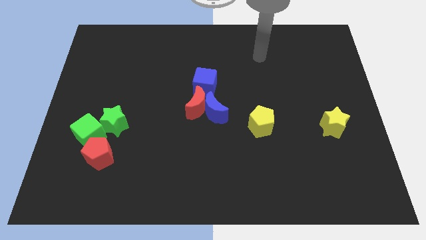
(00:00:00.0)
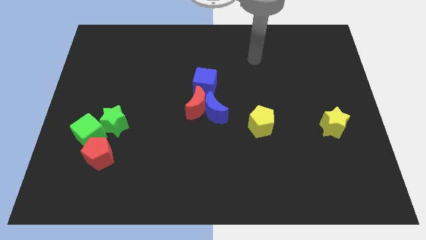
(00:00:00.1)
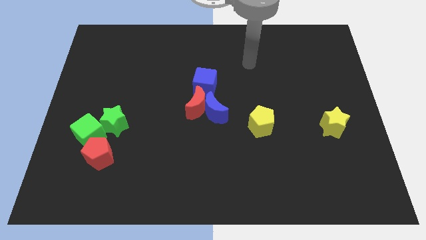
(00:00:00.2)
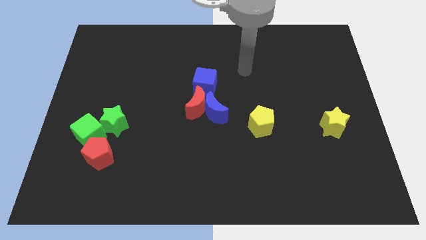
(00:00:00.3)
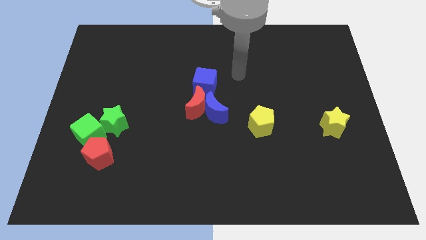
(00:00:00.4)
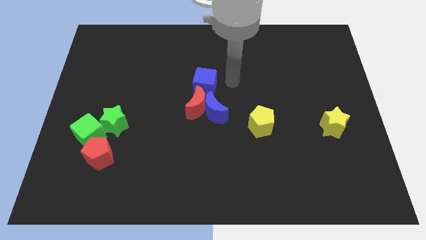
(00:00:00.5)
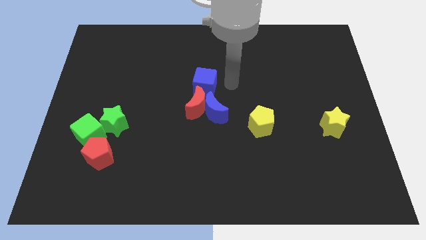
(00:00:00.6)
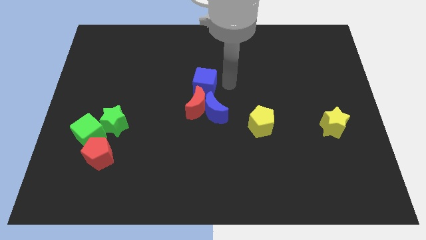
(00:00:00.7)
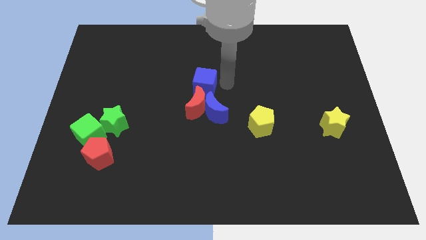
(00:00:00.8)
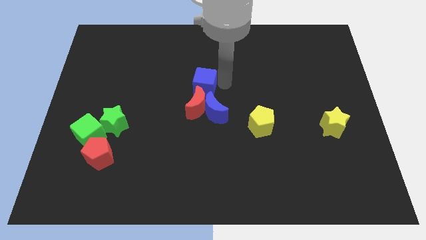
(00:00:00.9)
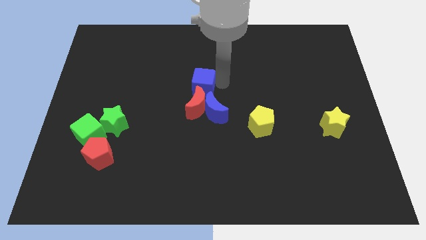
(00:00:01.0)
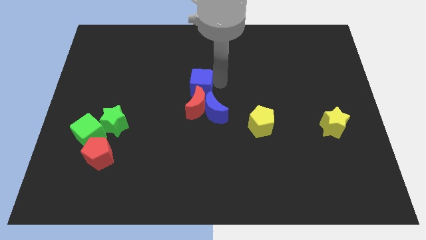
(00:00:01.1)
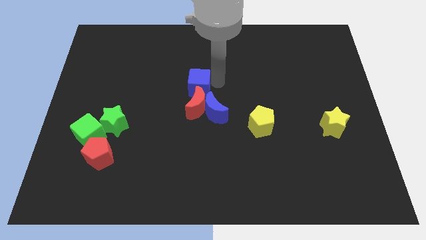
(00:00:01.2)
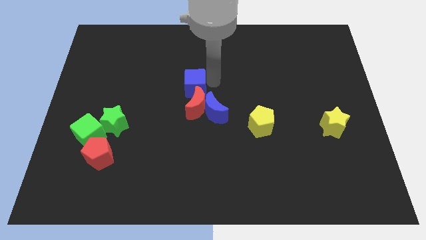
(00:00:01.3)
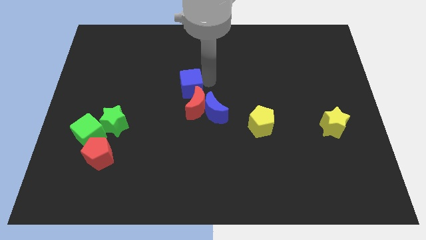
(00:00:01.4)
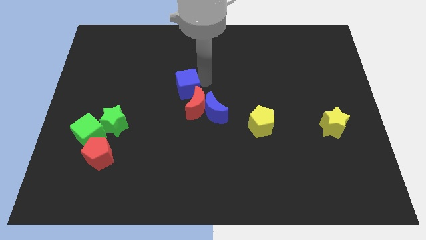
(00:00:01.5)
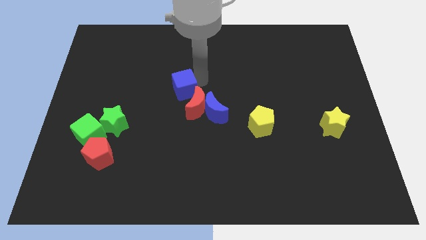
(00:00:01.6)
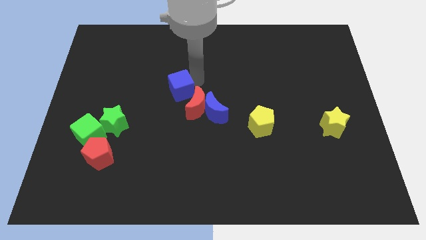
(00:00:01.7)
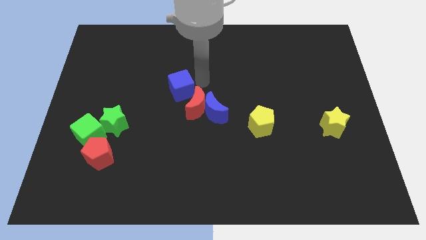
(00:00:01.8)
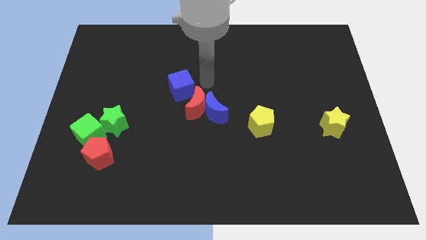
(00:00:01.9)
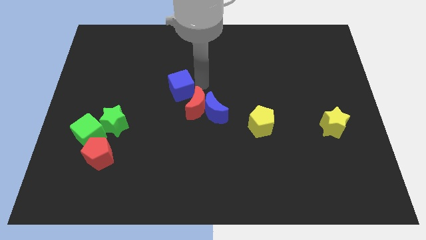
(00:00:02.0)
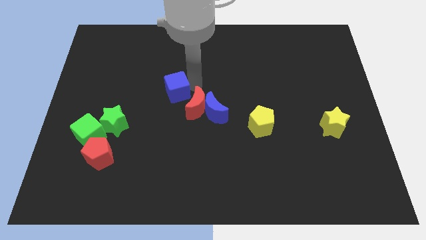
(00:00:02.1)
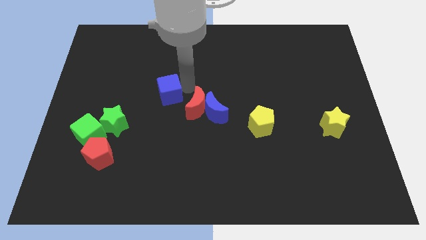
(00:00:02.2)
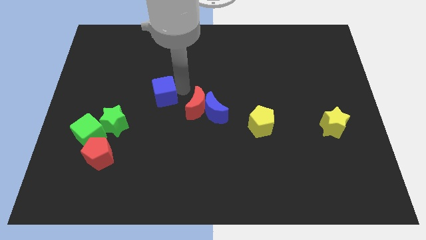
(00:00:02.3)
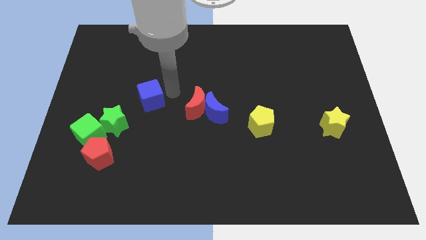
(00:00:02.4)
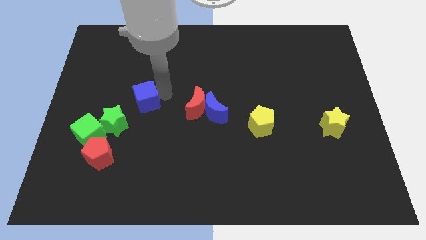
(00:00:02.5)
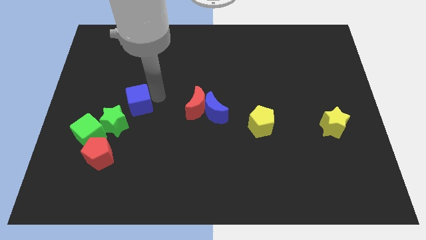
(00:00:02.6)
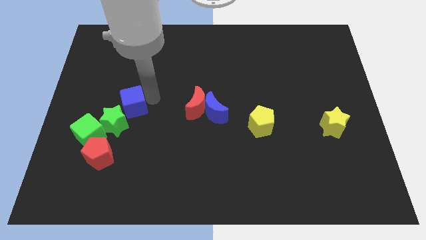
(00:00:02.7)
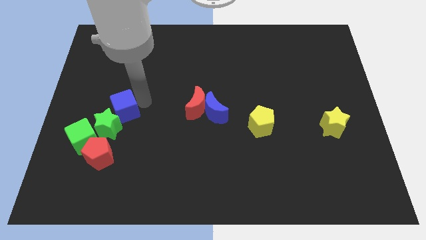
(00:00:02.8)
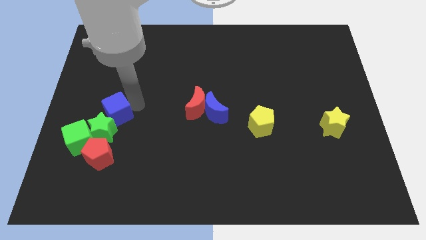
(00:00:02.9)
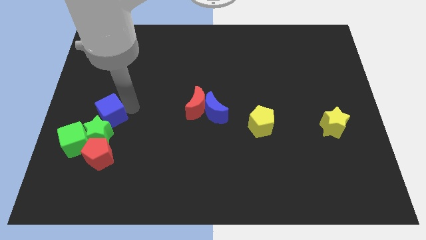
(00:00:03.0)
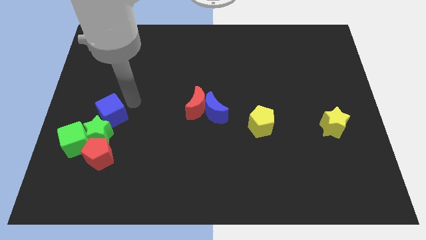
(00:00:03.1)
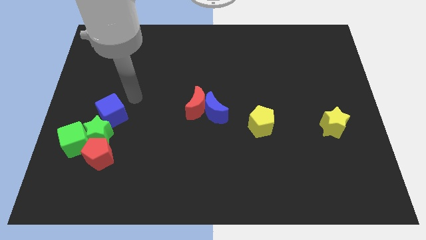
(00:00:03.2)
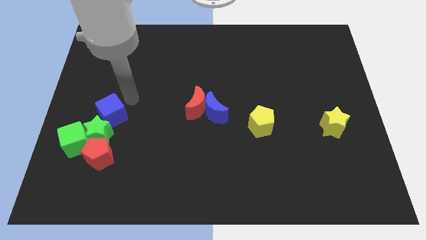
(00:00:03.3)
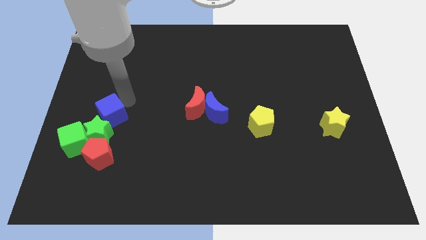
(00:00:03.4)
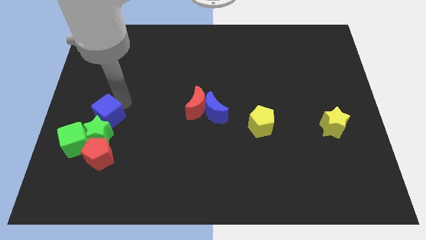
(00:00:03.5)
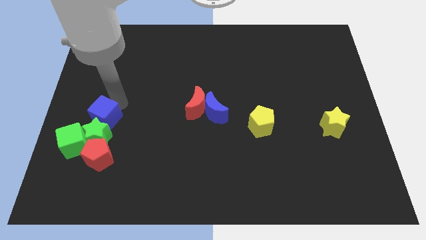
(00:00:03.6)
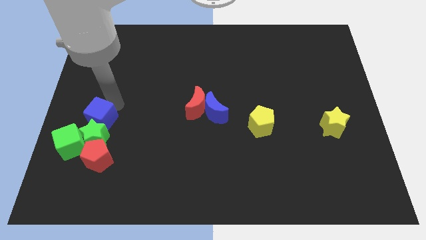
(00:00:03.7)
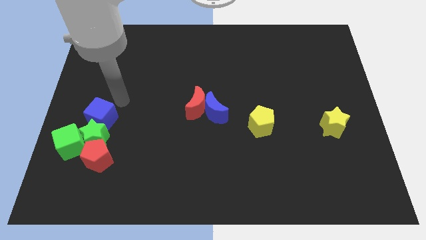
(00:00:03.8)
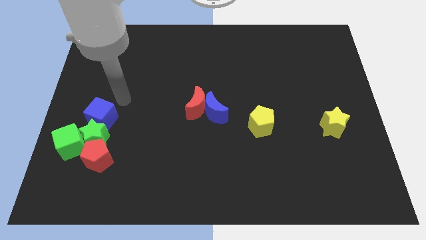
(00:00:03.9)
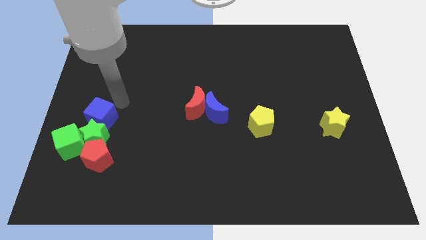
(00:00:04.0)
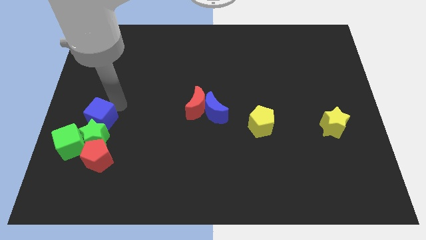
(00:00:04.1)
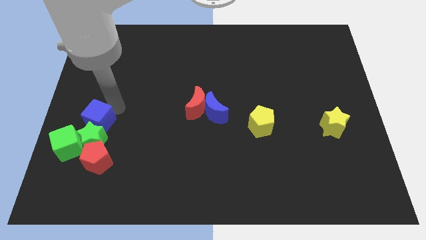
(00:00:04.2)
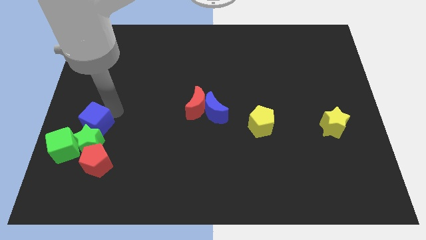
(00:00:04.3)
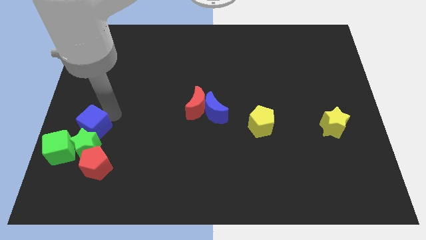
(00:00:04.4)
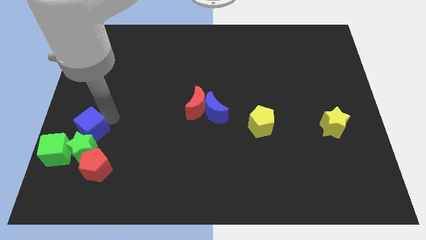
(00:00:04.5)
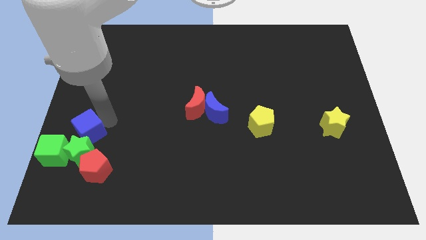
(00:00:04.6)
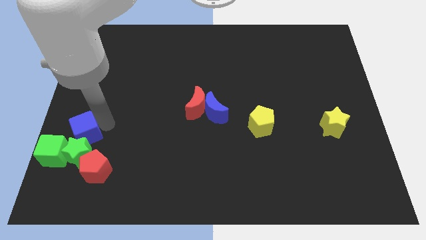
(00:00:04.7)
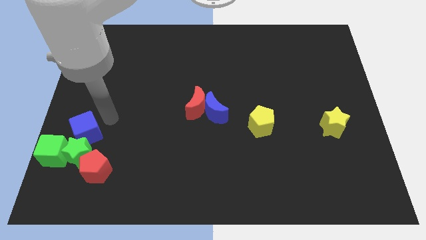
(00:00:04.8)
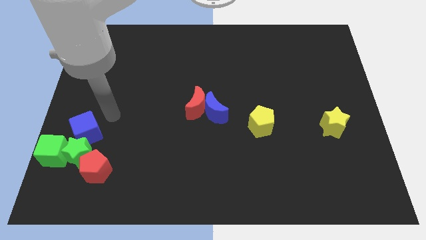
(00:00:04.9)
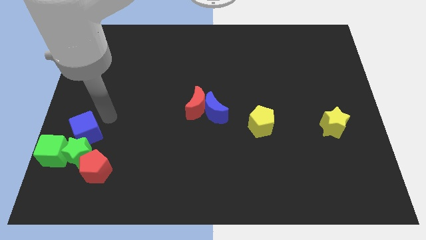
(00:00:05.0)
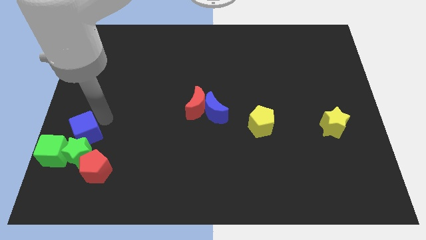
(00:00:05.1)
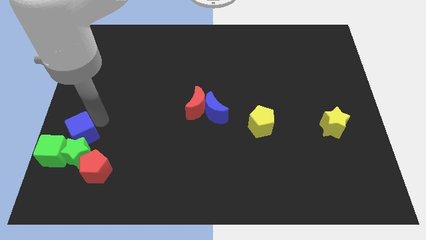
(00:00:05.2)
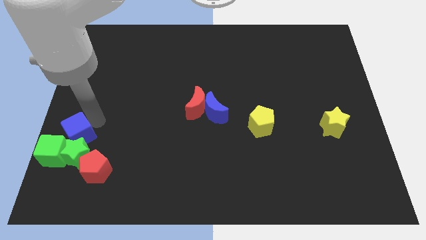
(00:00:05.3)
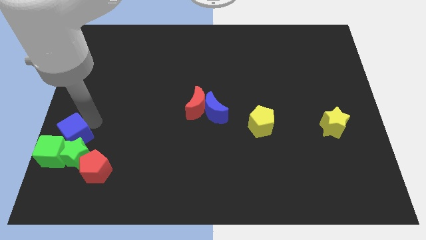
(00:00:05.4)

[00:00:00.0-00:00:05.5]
push the blue cube towards the green cube

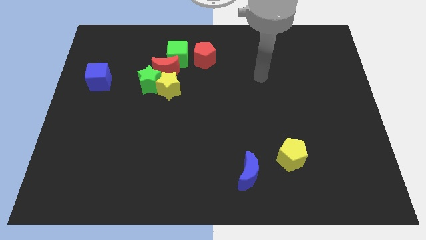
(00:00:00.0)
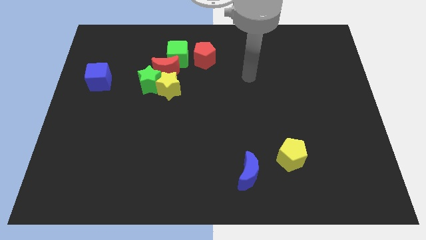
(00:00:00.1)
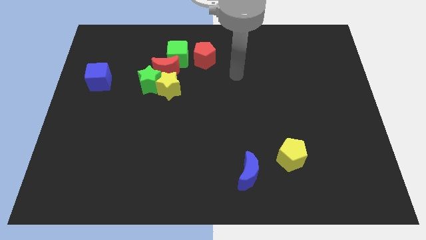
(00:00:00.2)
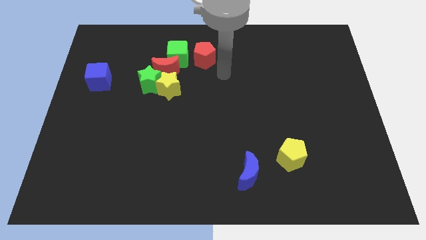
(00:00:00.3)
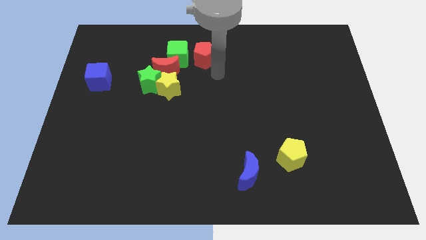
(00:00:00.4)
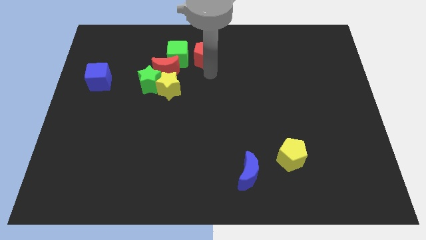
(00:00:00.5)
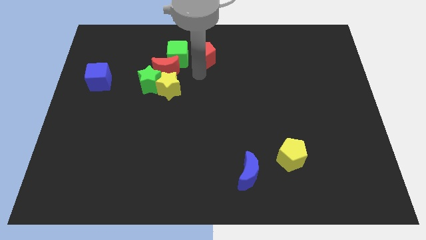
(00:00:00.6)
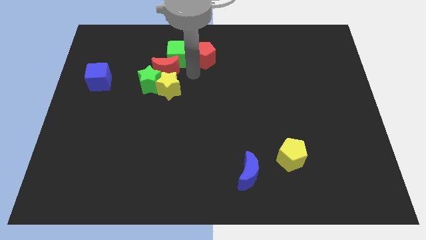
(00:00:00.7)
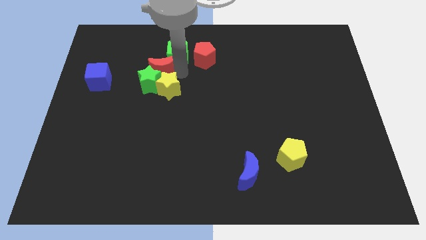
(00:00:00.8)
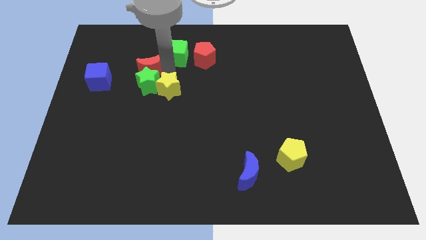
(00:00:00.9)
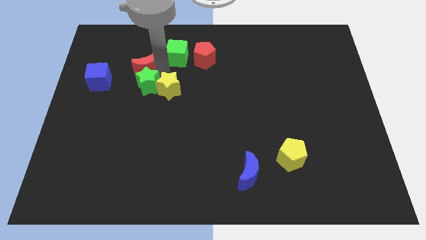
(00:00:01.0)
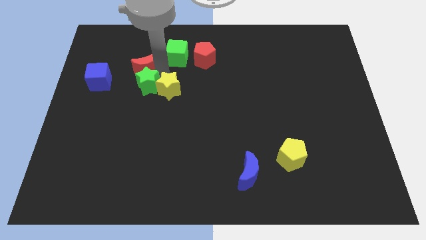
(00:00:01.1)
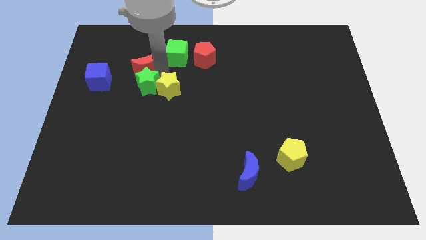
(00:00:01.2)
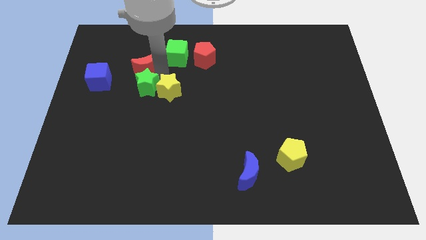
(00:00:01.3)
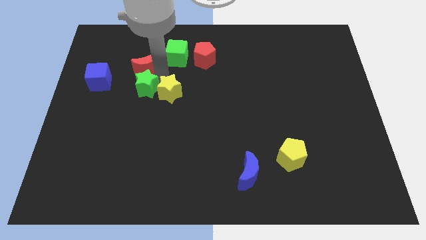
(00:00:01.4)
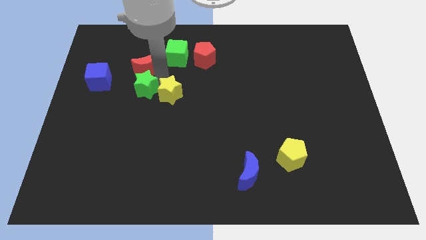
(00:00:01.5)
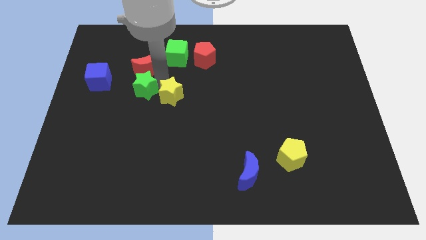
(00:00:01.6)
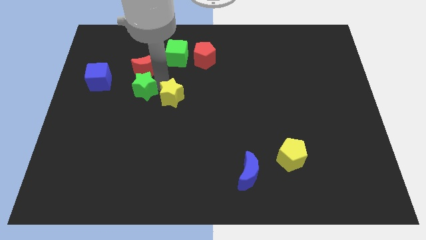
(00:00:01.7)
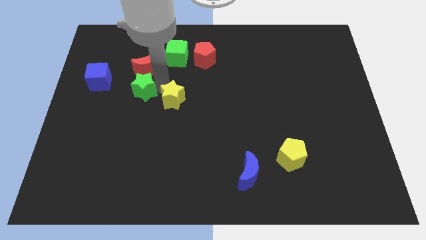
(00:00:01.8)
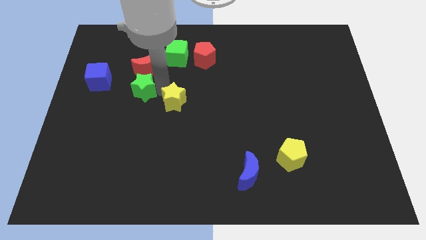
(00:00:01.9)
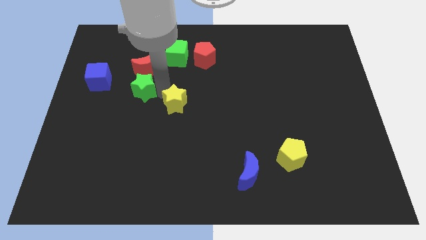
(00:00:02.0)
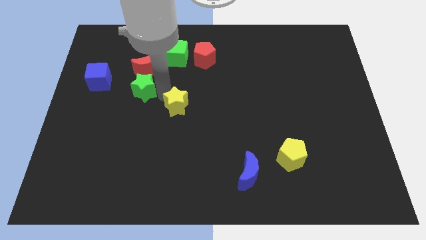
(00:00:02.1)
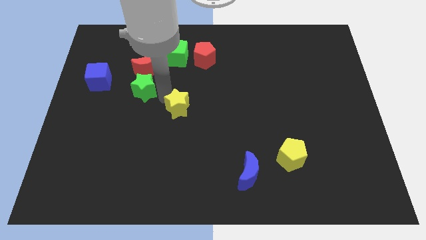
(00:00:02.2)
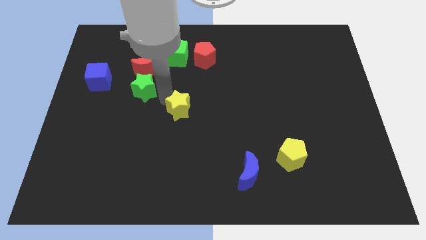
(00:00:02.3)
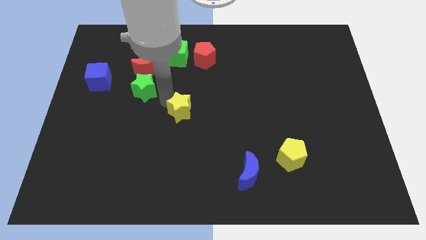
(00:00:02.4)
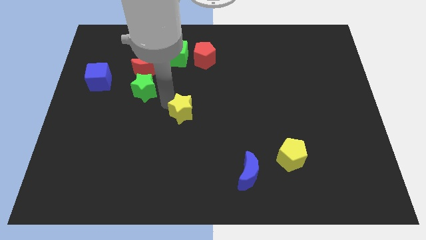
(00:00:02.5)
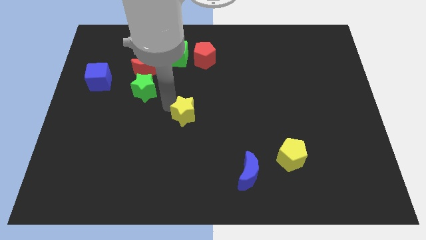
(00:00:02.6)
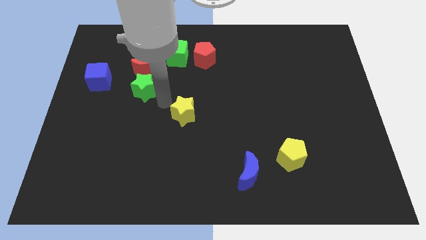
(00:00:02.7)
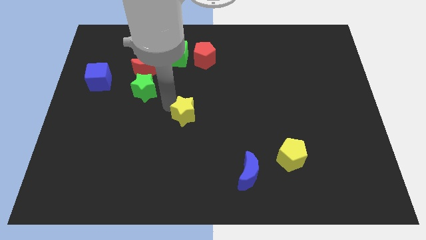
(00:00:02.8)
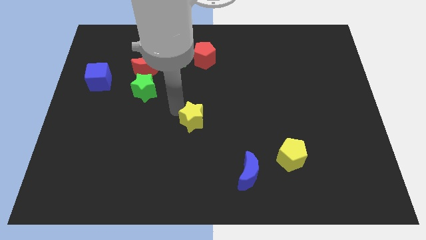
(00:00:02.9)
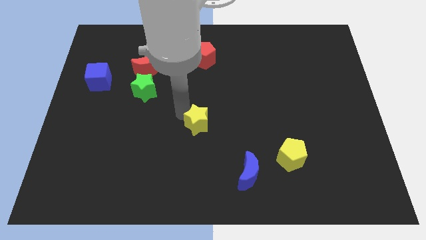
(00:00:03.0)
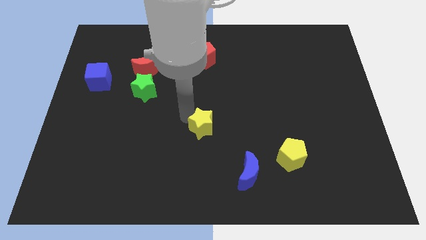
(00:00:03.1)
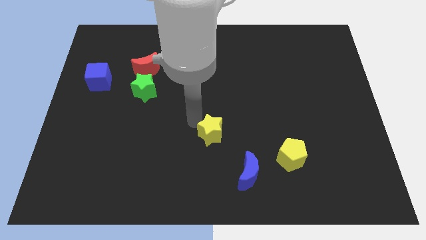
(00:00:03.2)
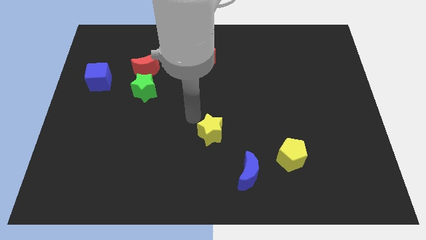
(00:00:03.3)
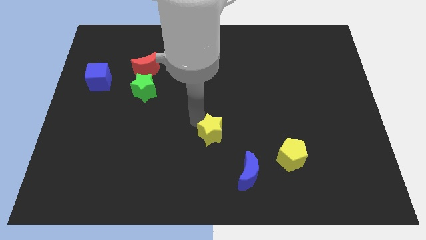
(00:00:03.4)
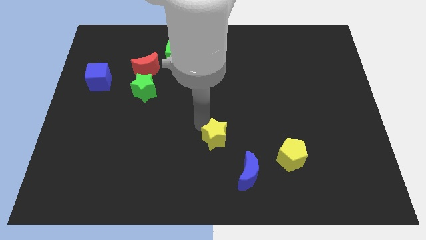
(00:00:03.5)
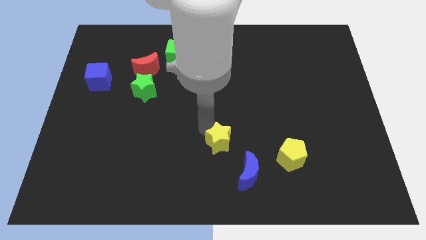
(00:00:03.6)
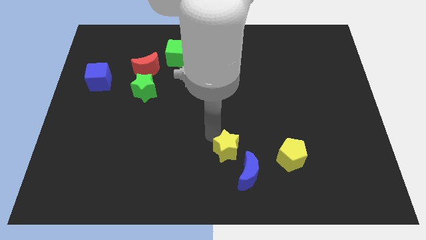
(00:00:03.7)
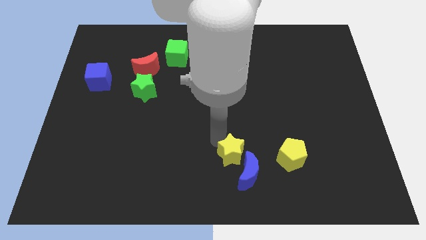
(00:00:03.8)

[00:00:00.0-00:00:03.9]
push the yellow star next to the blue moon
